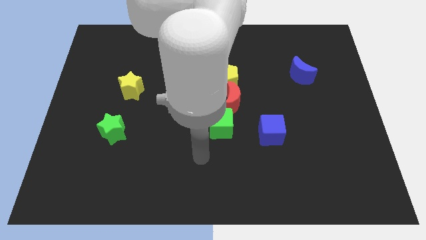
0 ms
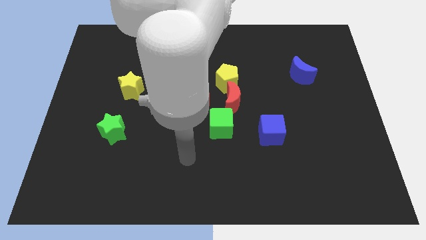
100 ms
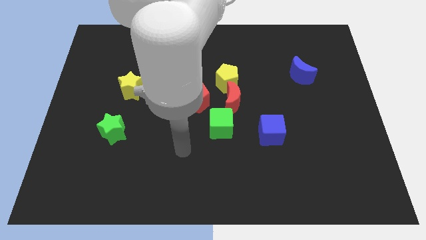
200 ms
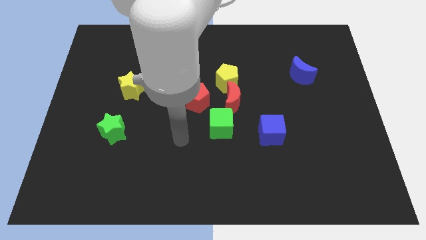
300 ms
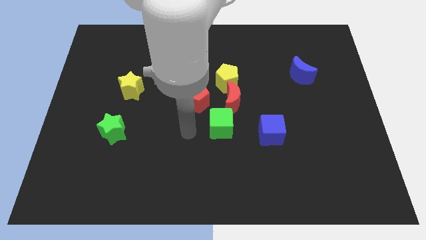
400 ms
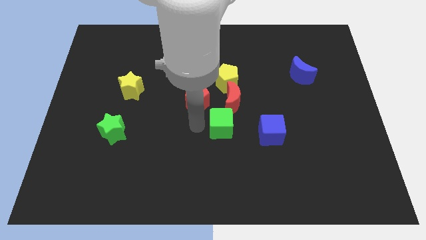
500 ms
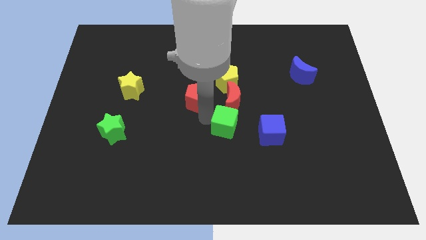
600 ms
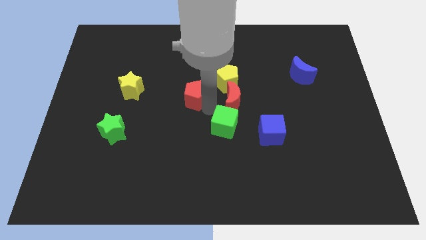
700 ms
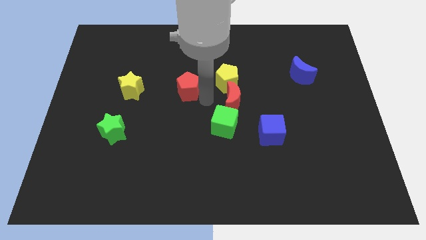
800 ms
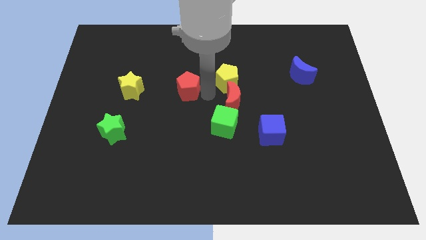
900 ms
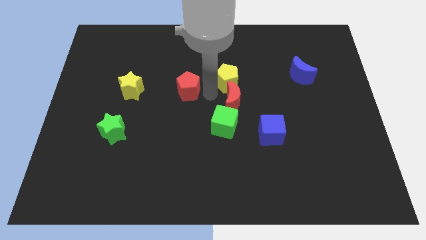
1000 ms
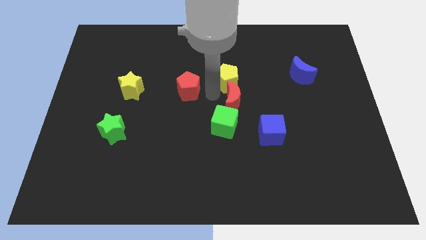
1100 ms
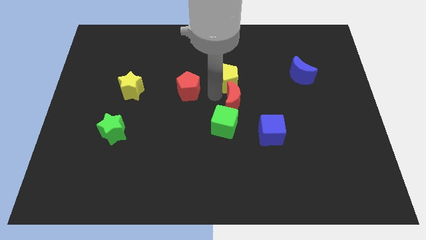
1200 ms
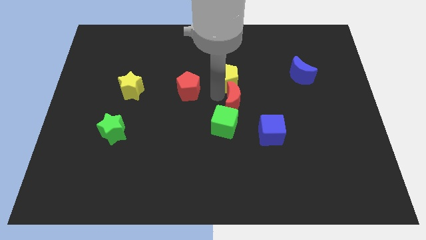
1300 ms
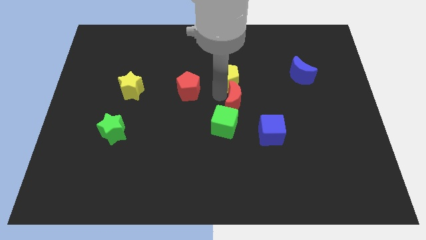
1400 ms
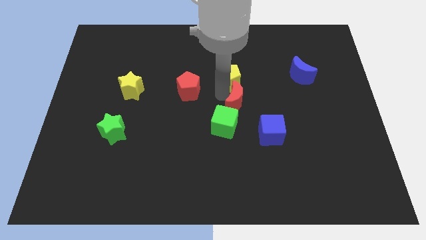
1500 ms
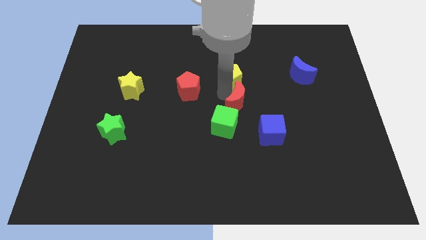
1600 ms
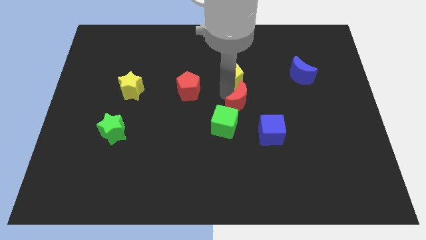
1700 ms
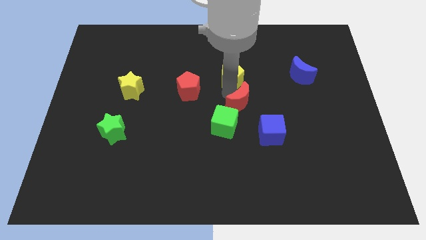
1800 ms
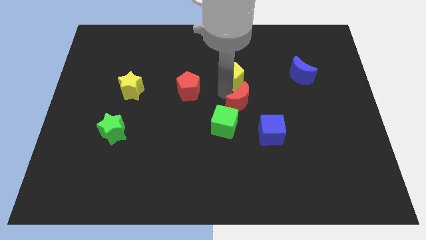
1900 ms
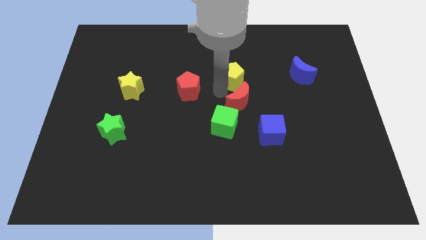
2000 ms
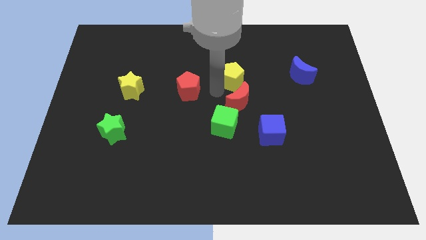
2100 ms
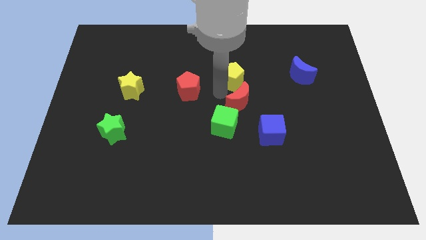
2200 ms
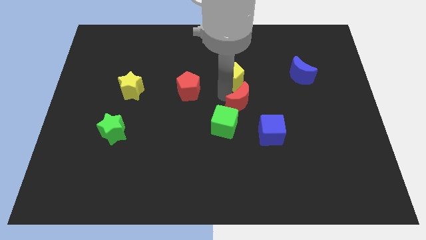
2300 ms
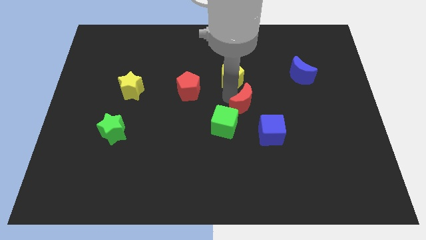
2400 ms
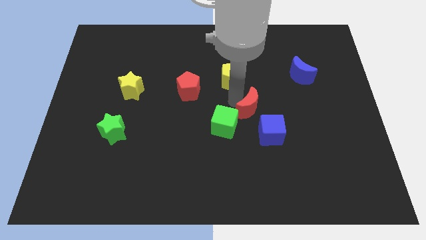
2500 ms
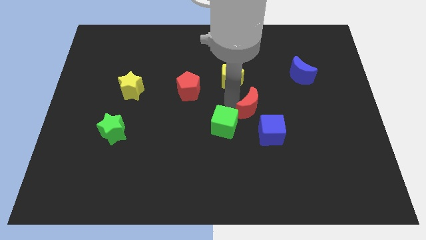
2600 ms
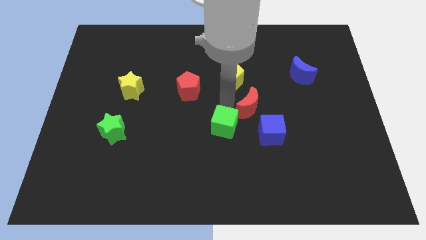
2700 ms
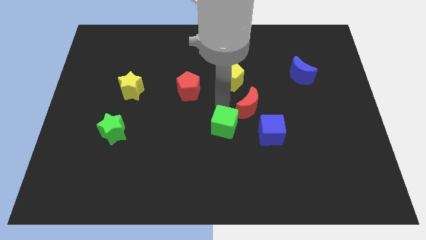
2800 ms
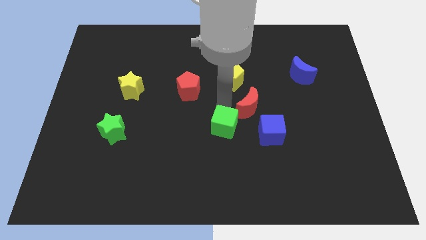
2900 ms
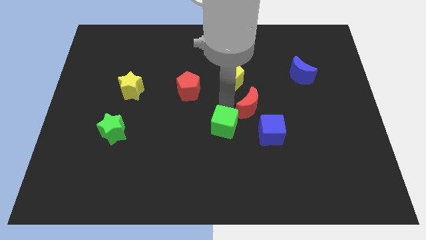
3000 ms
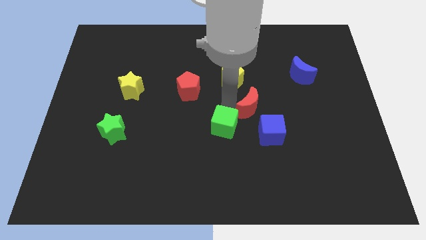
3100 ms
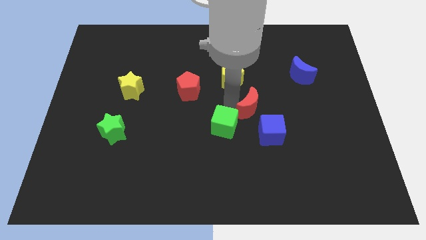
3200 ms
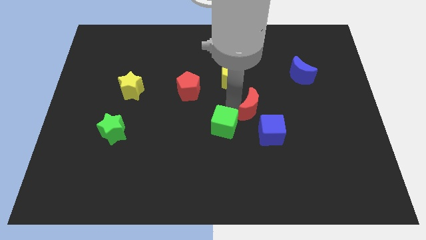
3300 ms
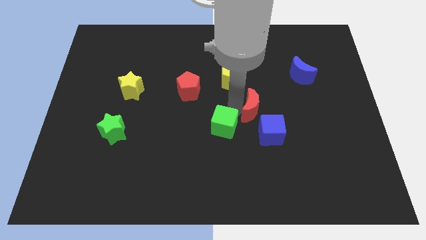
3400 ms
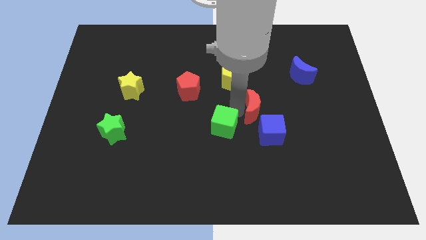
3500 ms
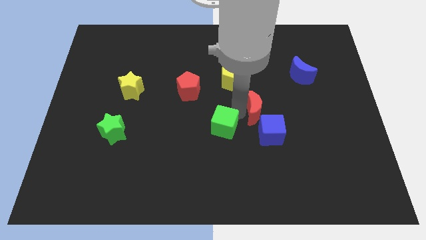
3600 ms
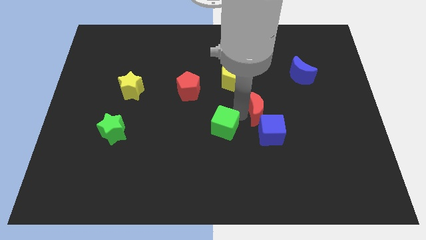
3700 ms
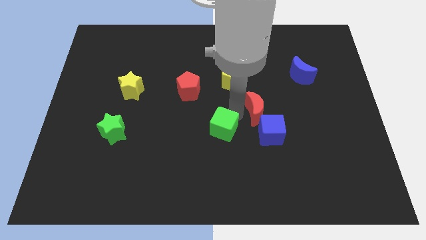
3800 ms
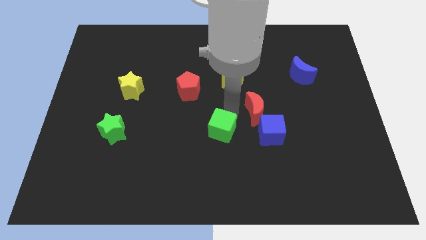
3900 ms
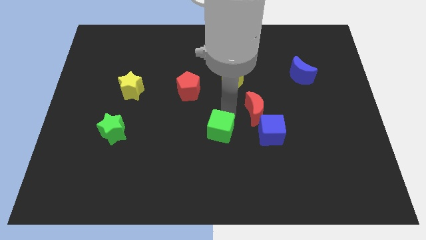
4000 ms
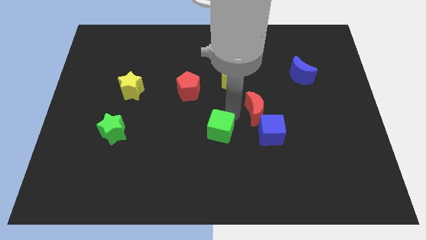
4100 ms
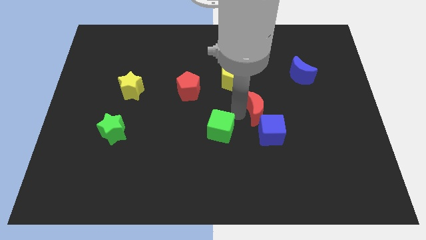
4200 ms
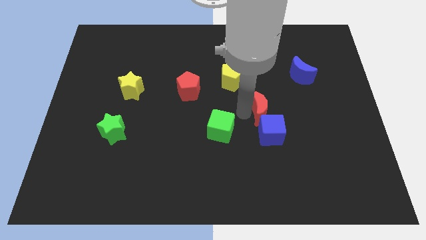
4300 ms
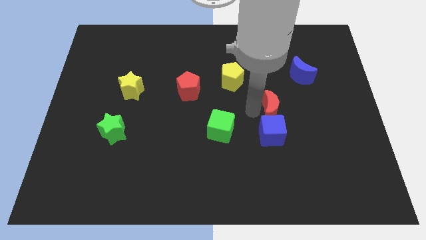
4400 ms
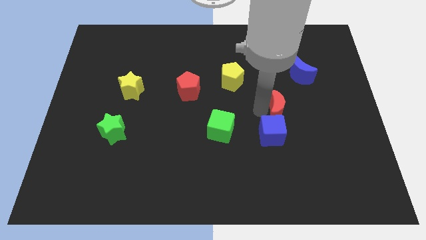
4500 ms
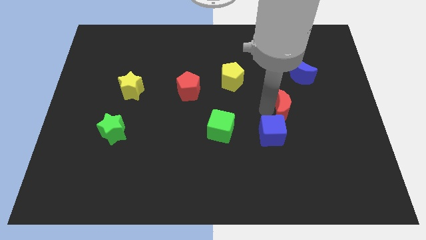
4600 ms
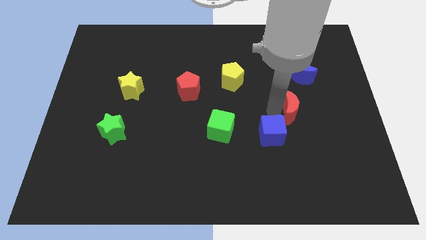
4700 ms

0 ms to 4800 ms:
push the red moon to the bottom side of the blue moon

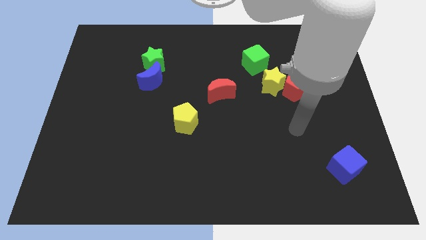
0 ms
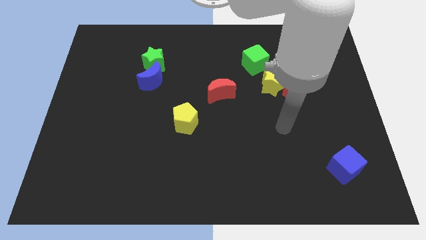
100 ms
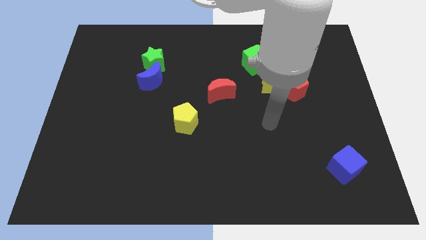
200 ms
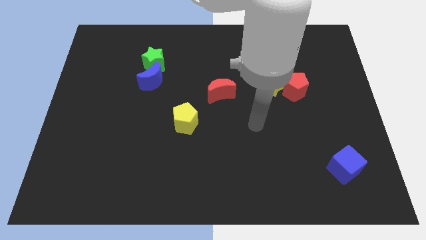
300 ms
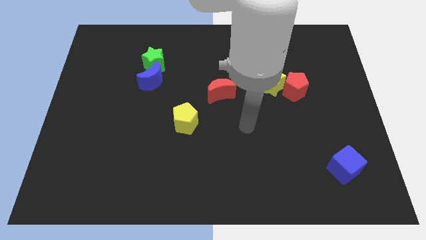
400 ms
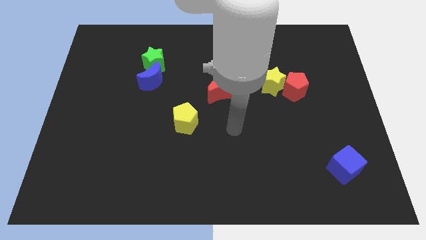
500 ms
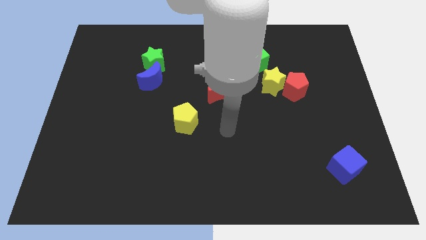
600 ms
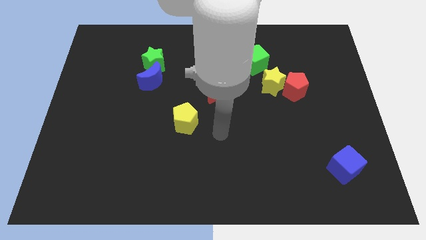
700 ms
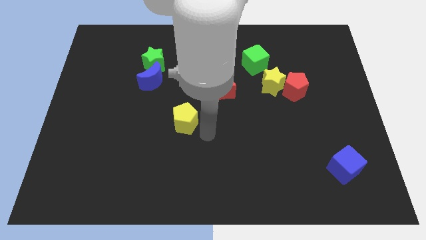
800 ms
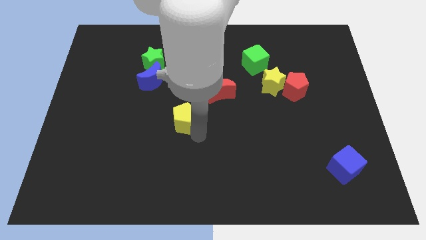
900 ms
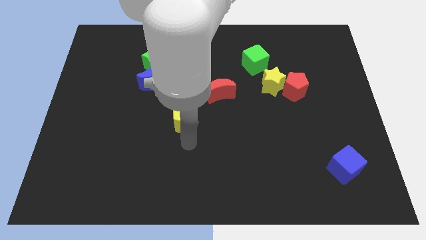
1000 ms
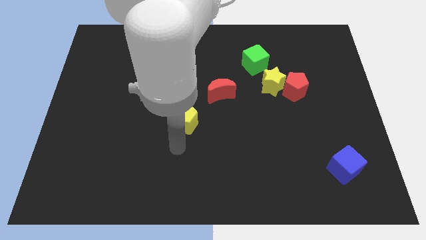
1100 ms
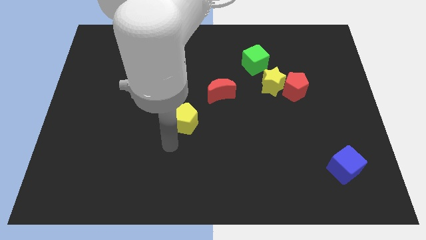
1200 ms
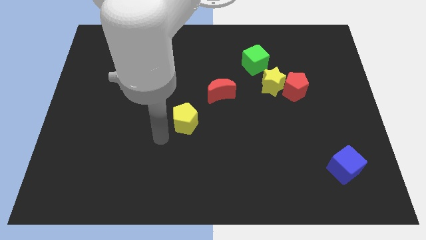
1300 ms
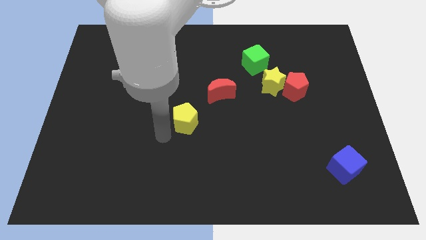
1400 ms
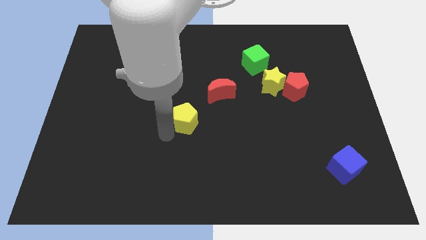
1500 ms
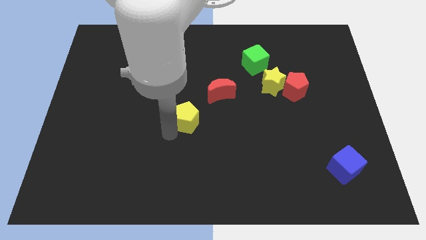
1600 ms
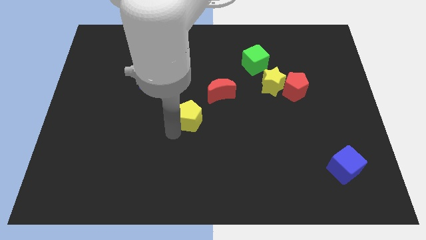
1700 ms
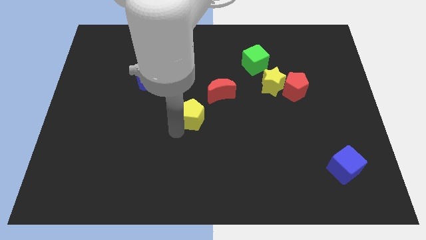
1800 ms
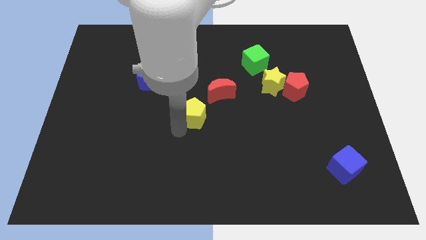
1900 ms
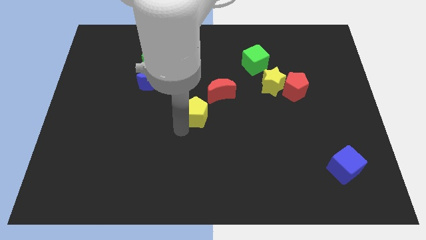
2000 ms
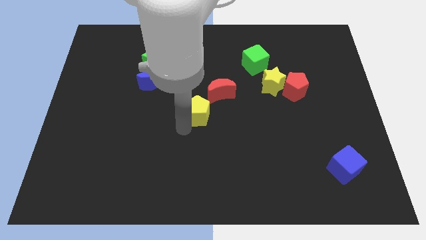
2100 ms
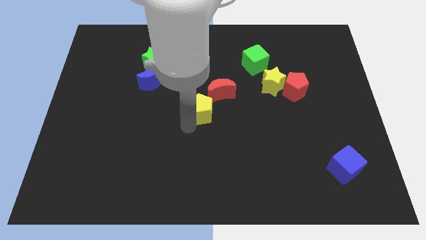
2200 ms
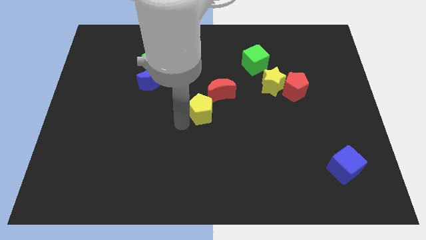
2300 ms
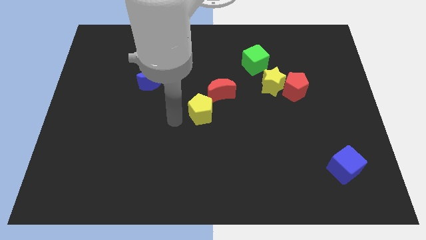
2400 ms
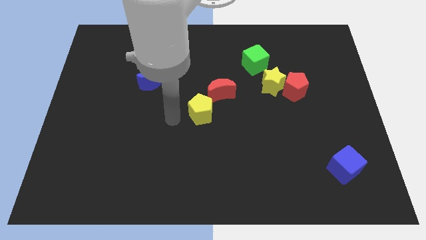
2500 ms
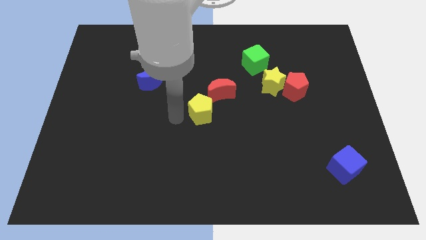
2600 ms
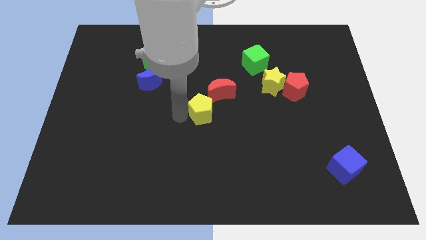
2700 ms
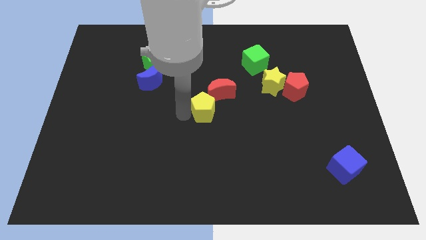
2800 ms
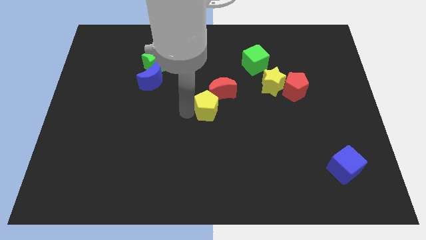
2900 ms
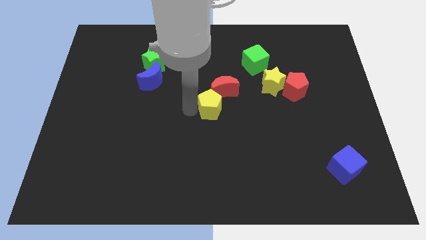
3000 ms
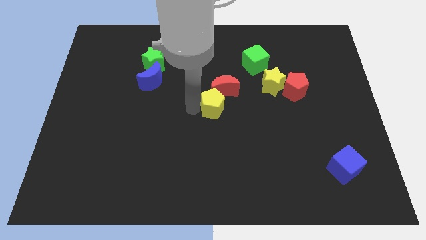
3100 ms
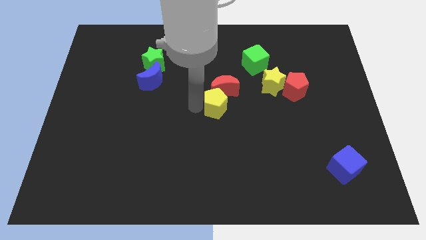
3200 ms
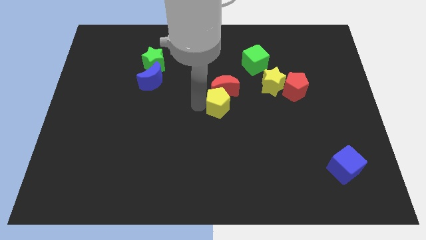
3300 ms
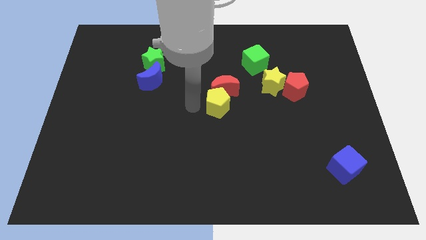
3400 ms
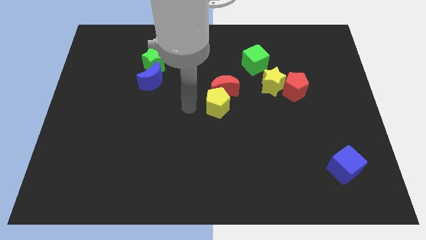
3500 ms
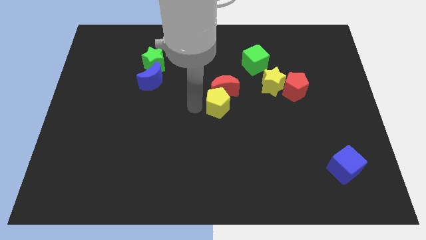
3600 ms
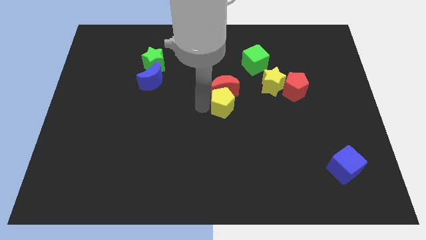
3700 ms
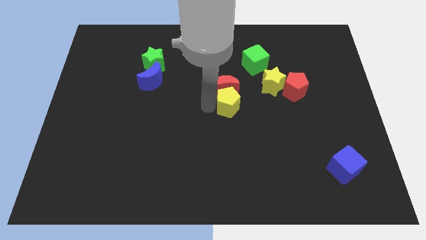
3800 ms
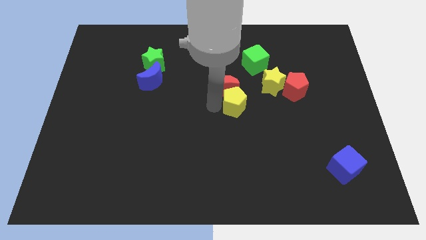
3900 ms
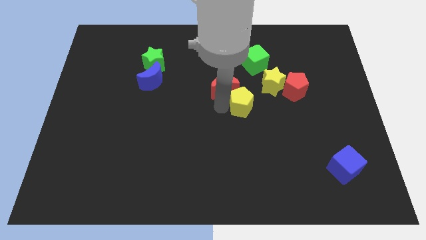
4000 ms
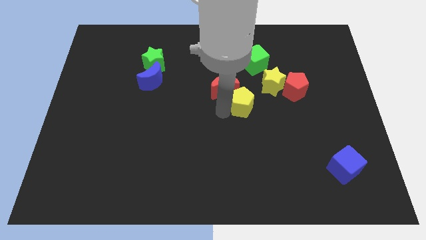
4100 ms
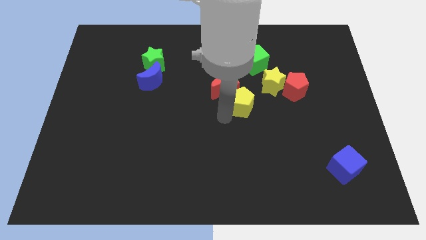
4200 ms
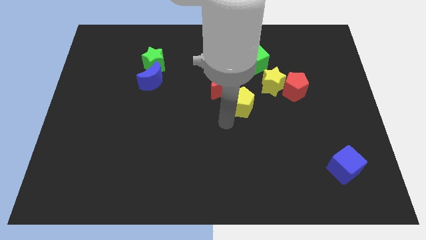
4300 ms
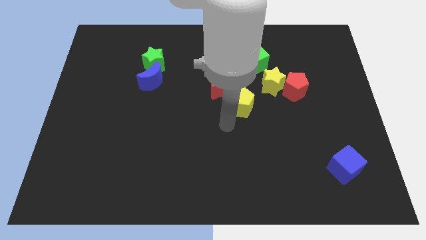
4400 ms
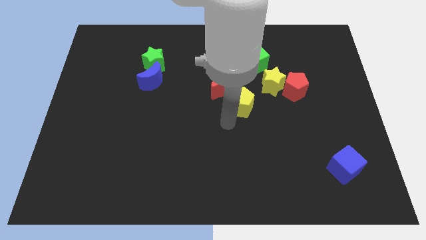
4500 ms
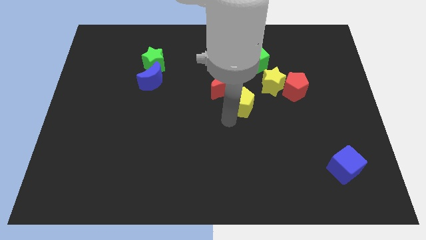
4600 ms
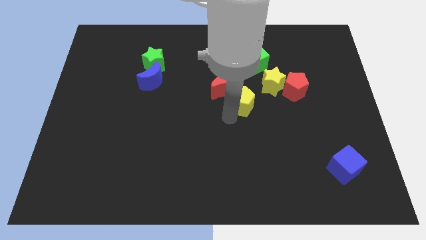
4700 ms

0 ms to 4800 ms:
push the yellow pentagon to the left side of the red pentagon
